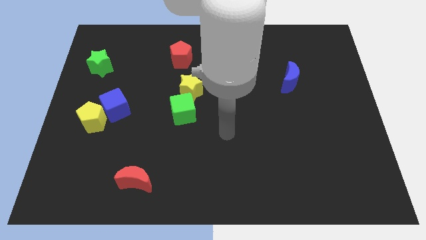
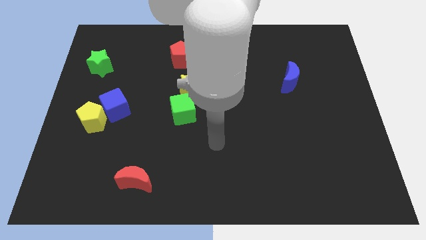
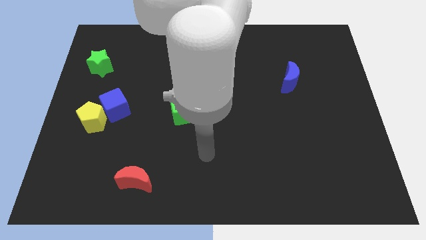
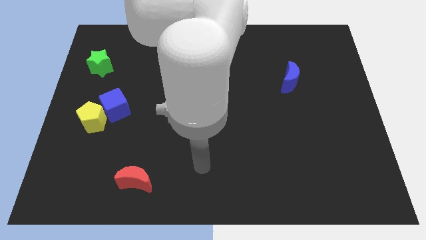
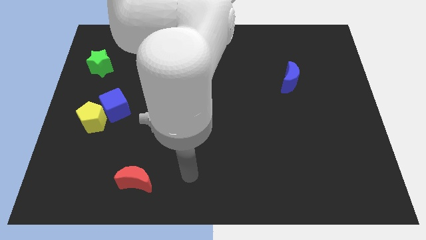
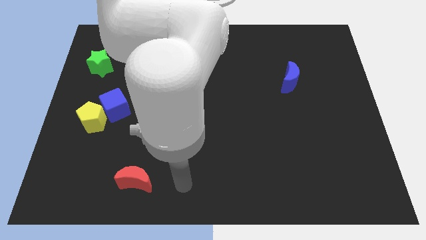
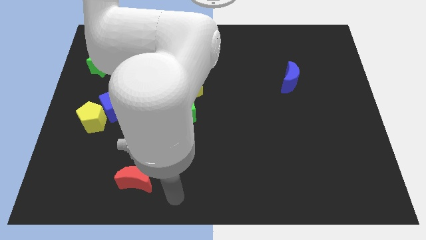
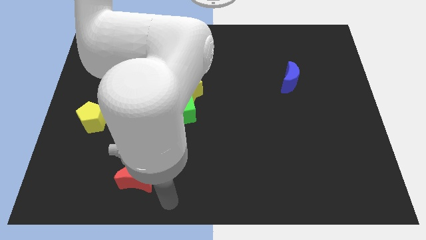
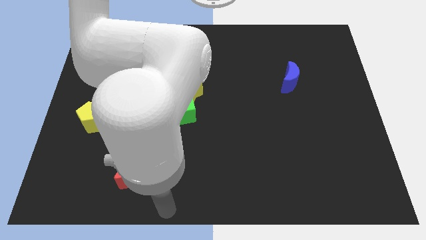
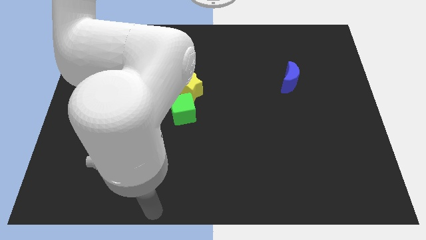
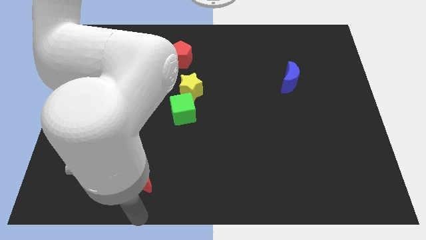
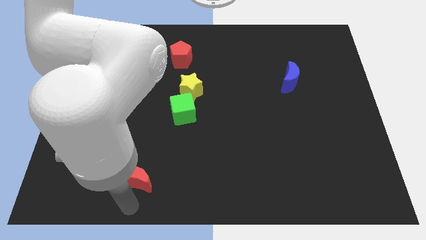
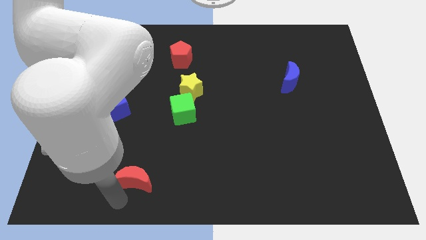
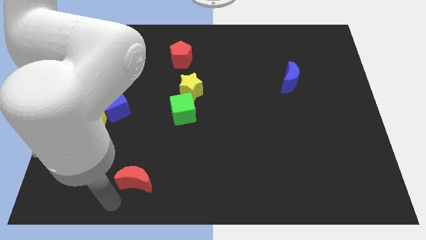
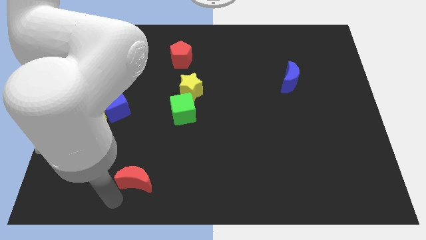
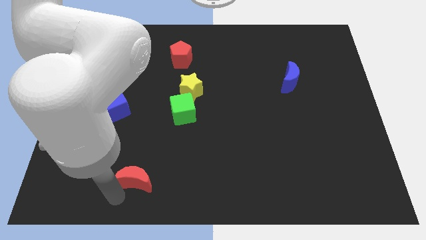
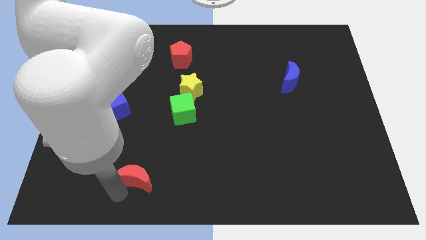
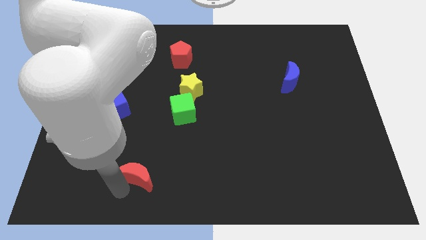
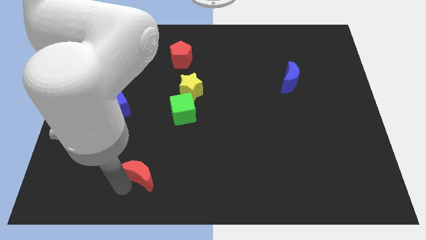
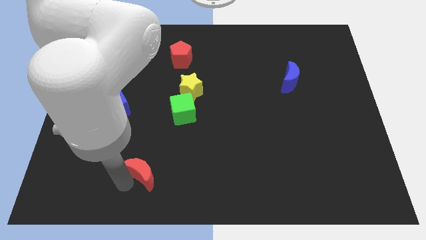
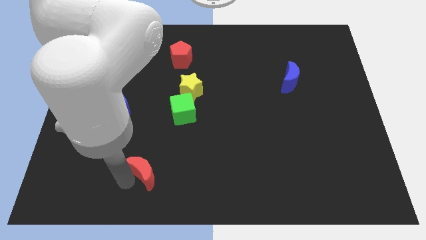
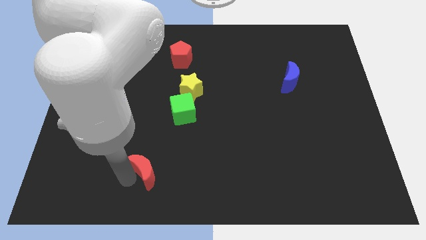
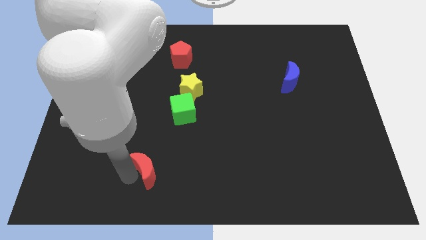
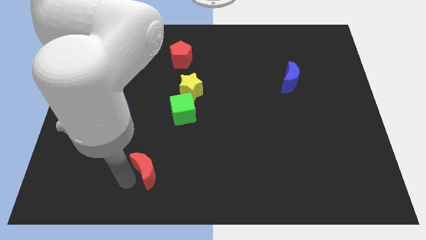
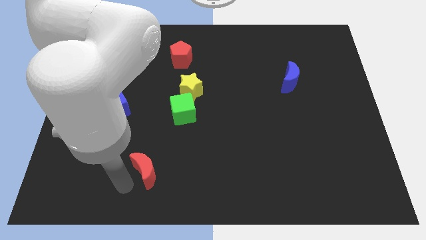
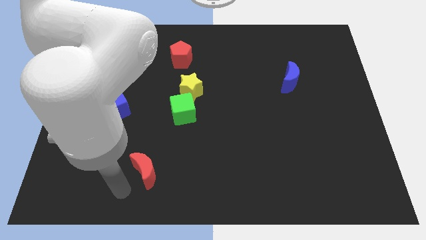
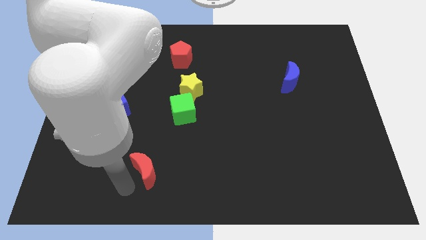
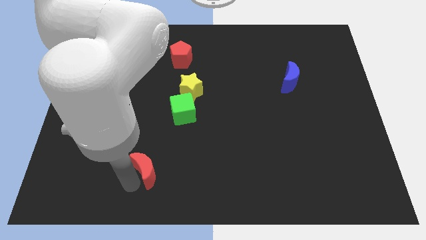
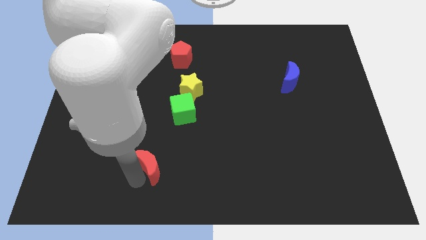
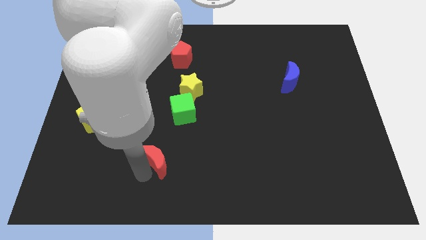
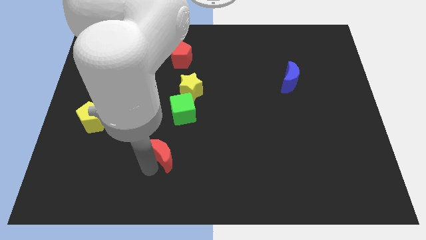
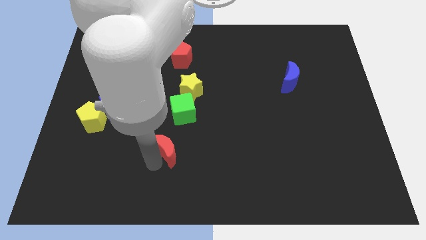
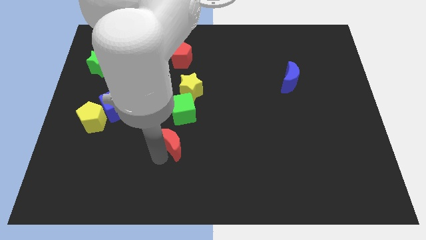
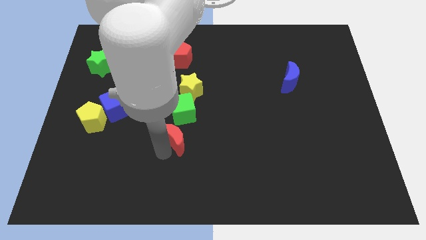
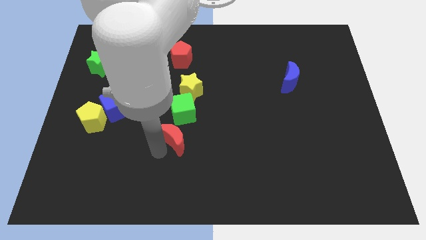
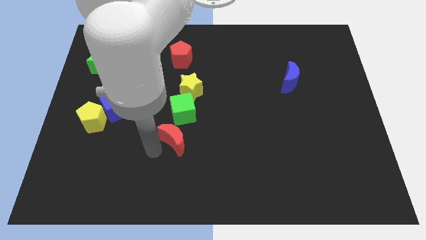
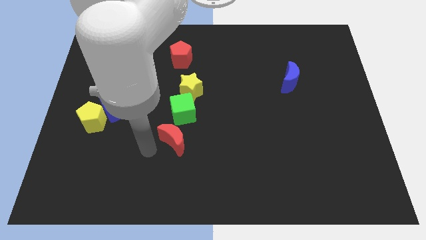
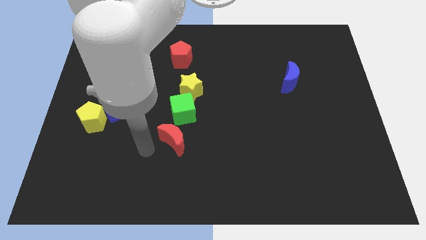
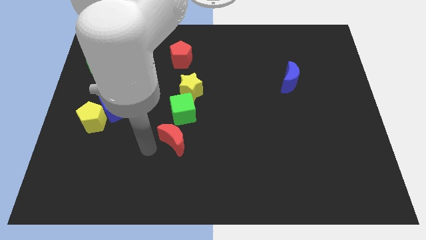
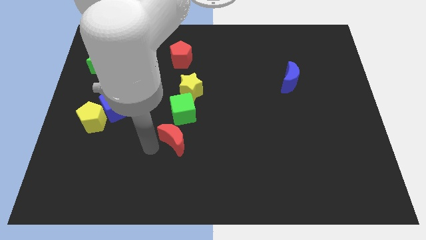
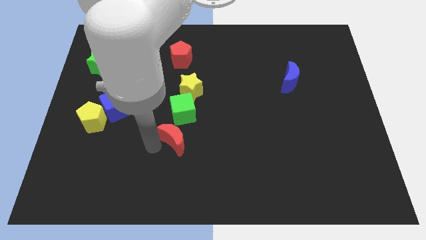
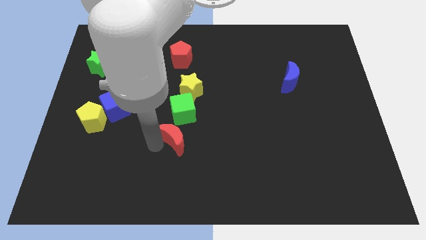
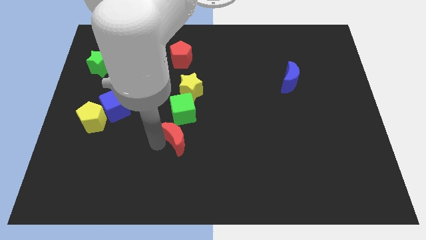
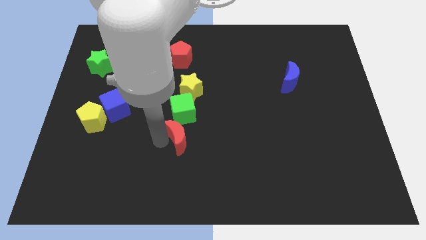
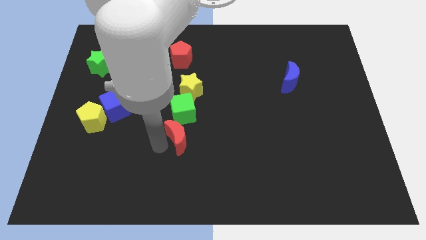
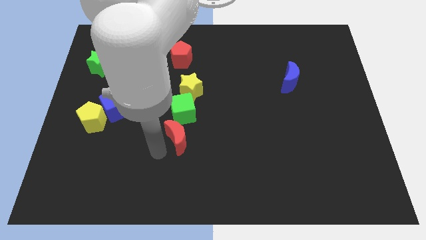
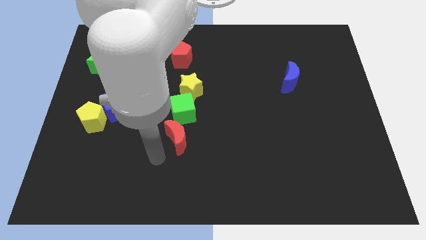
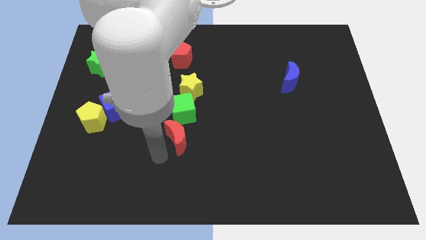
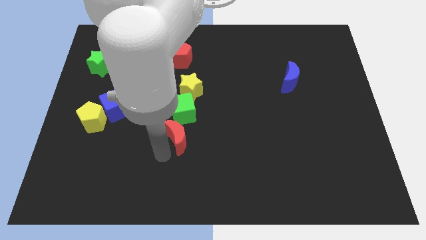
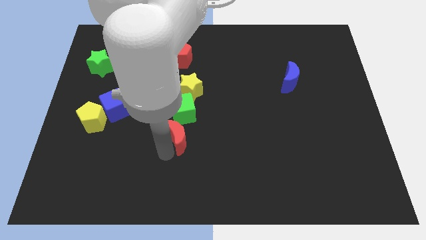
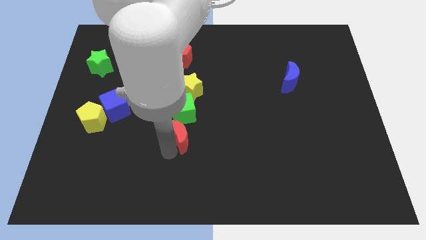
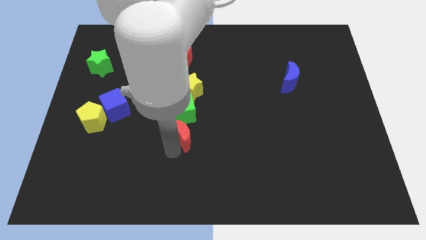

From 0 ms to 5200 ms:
put the red moon to the center

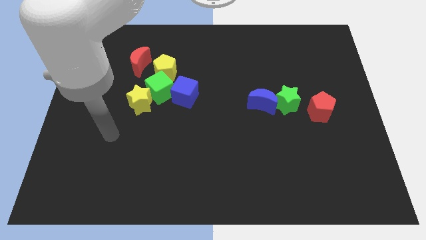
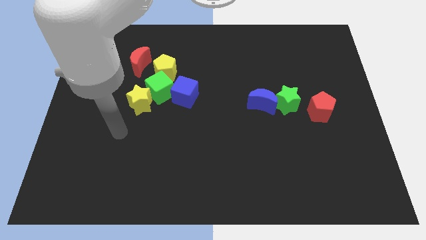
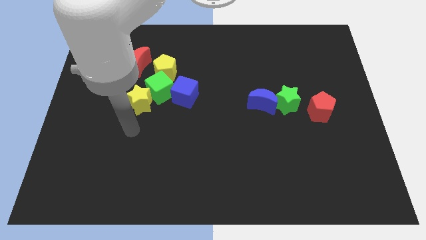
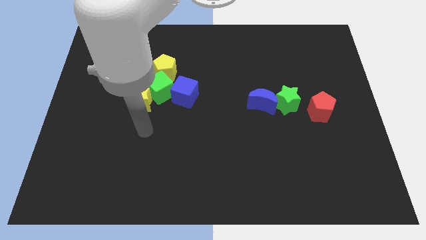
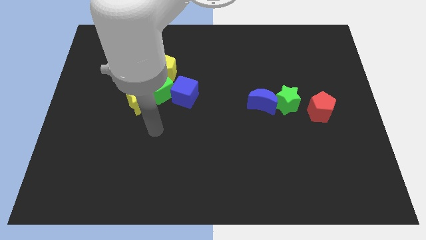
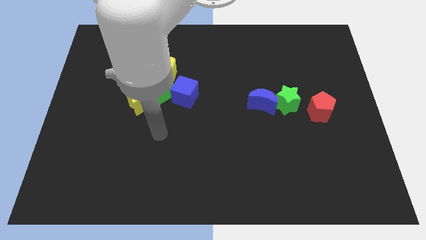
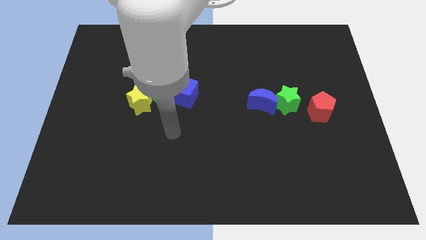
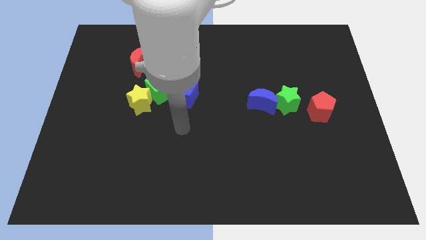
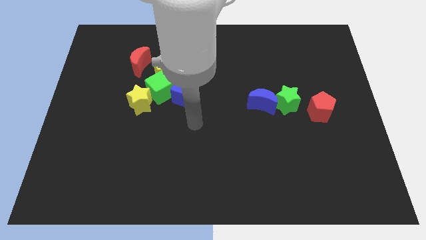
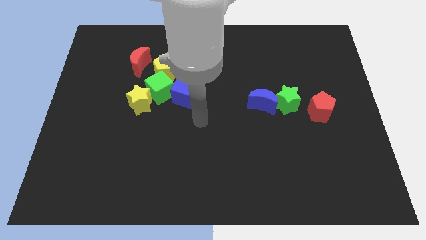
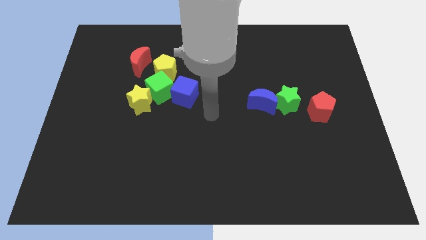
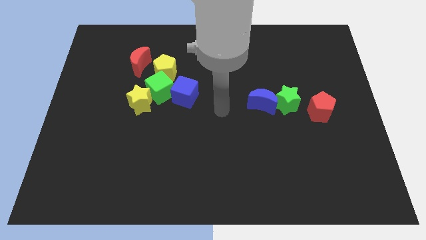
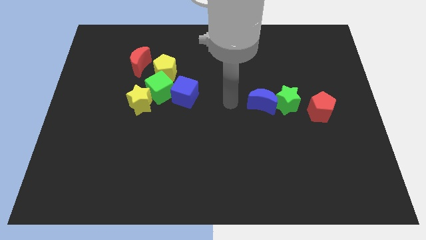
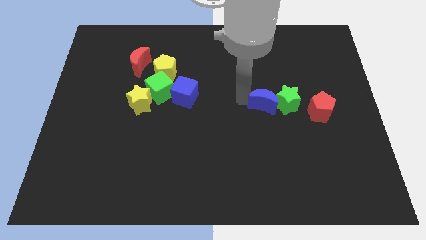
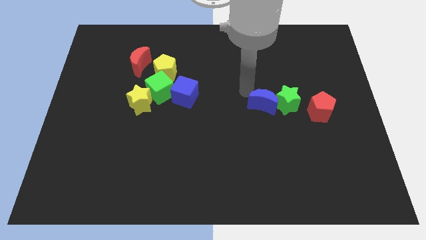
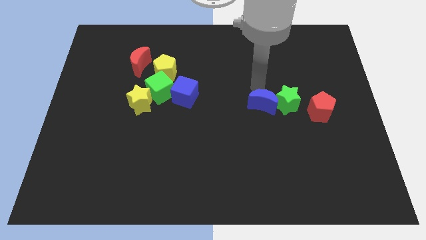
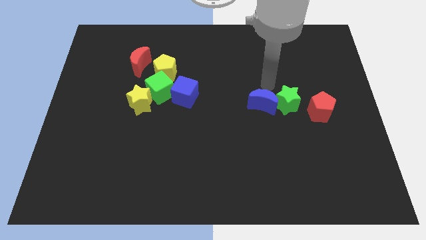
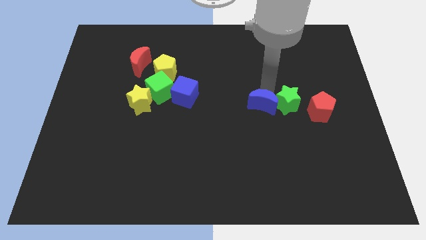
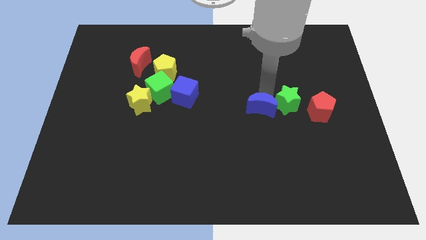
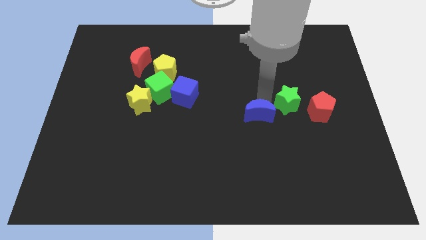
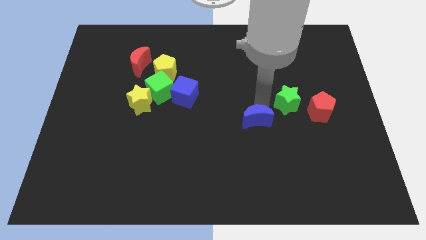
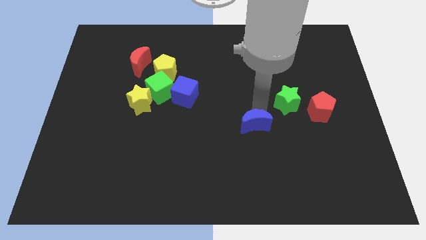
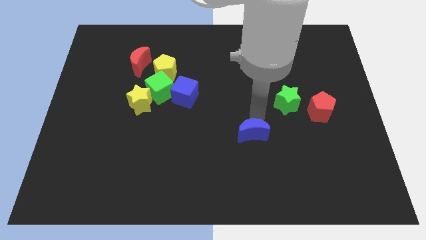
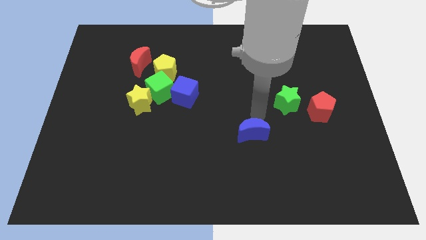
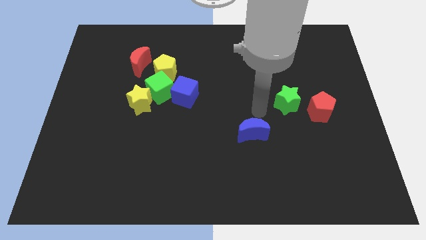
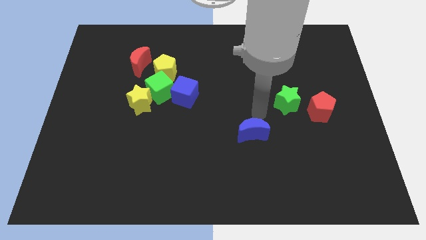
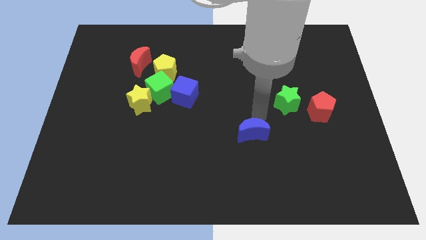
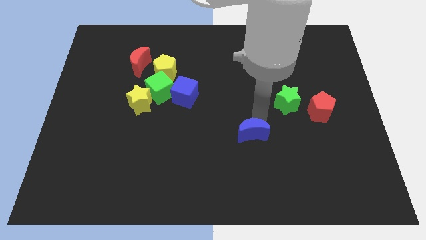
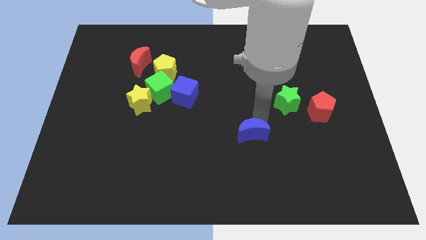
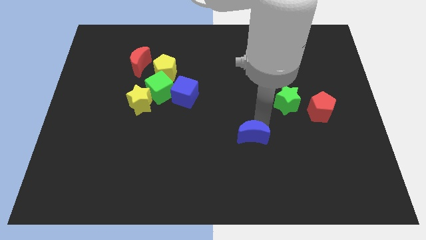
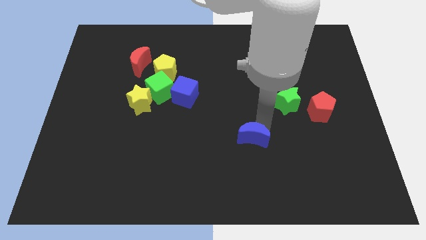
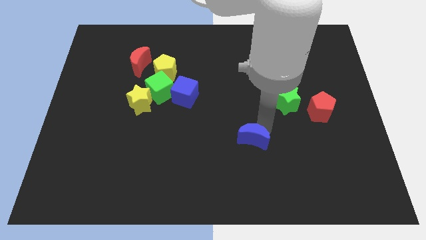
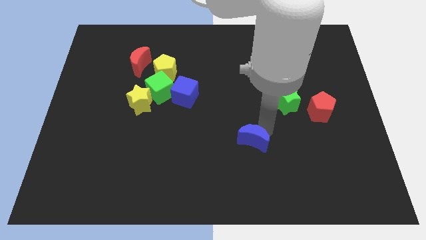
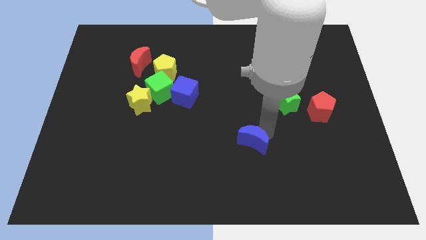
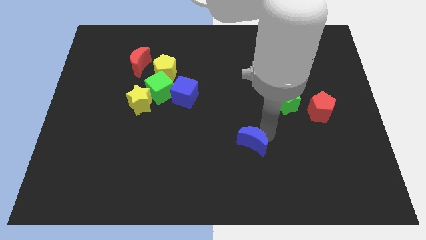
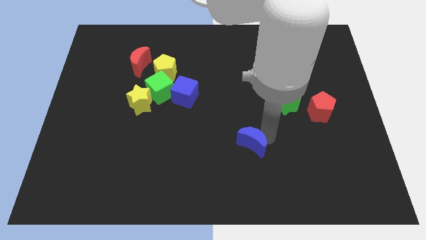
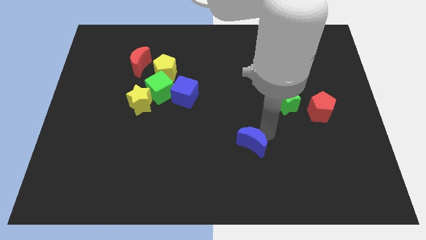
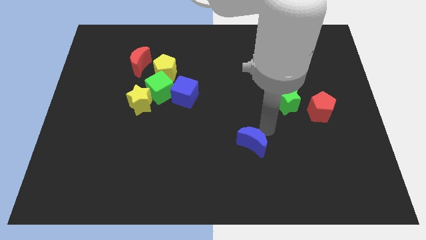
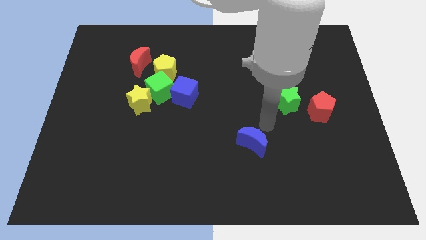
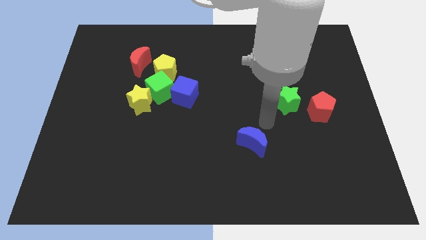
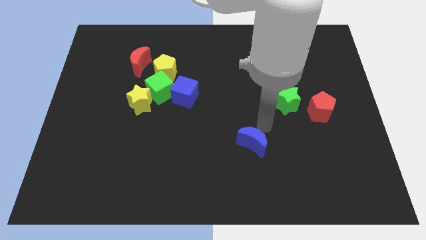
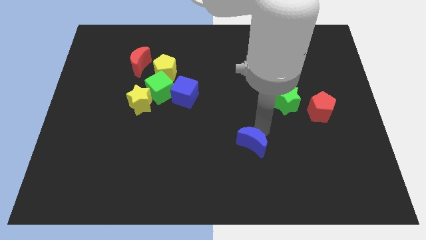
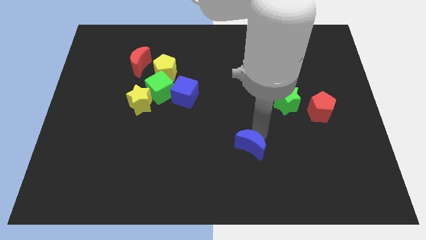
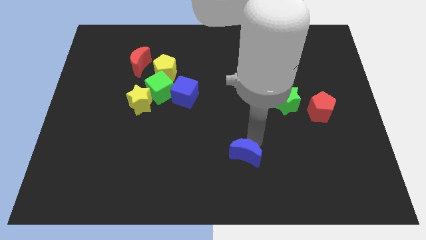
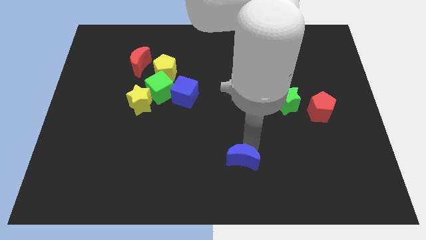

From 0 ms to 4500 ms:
move the blue moon to the bottom
